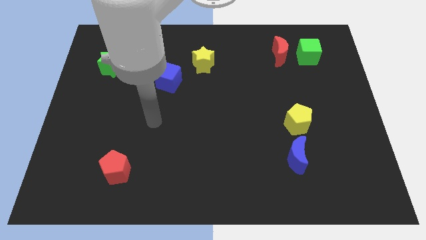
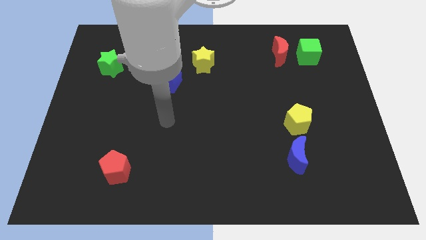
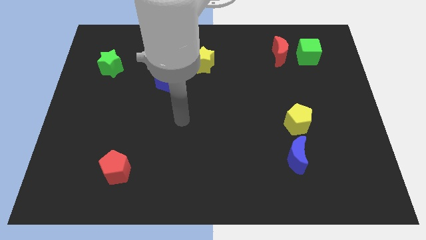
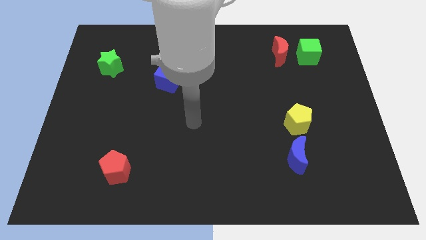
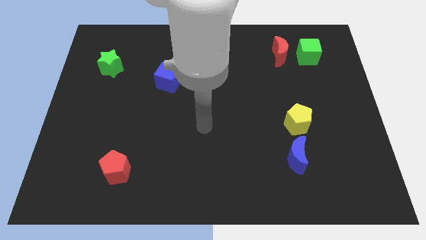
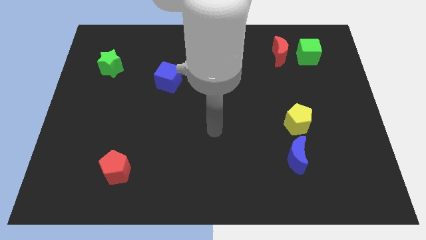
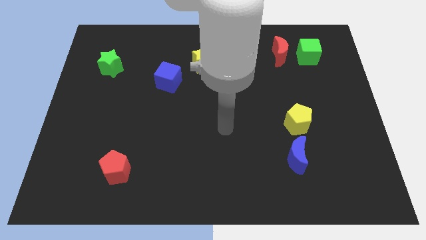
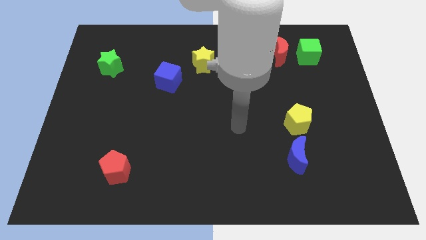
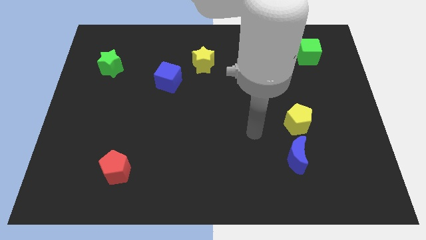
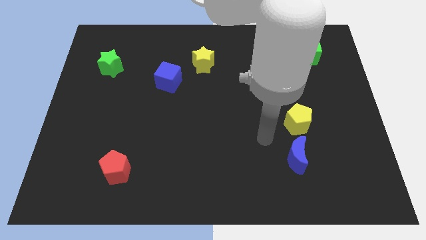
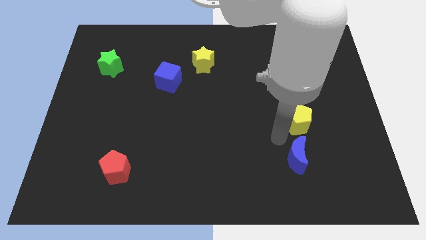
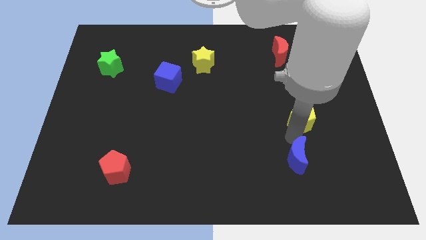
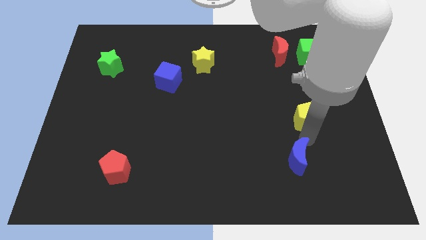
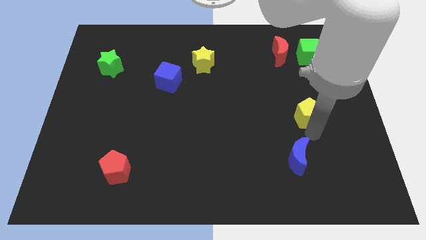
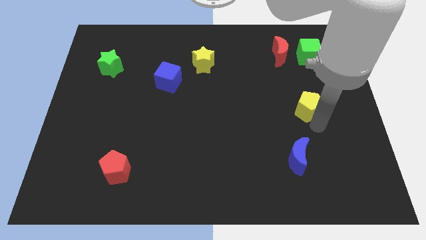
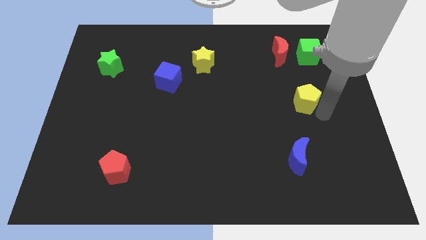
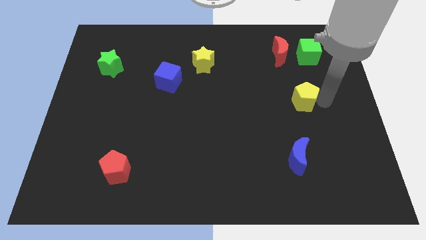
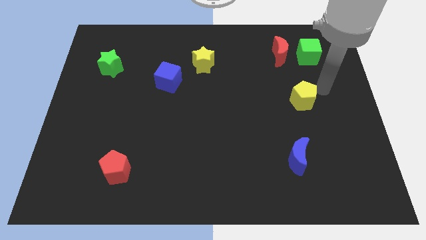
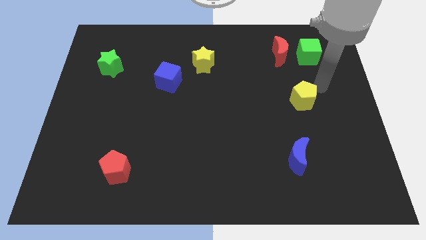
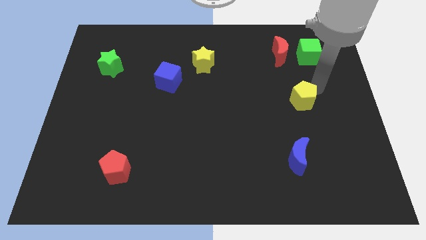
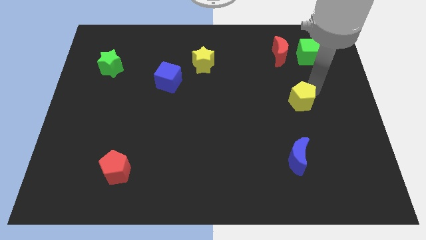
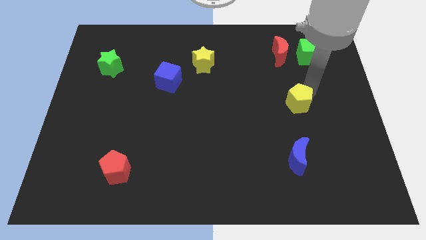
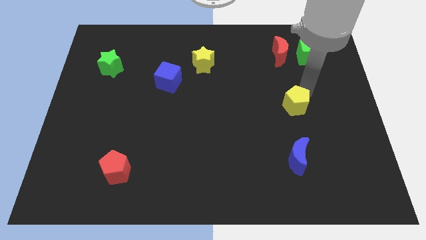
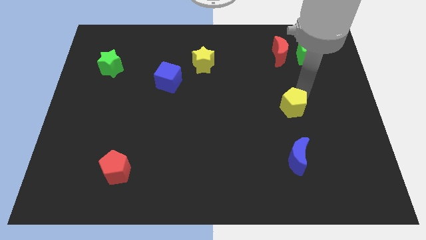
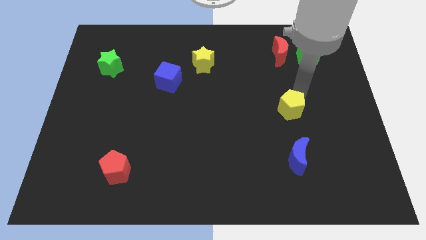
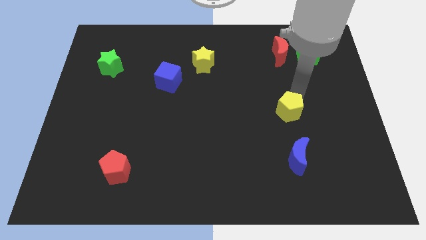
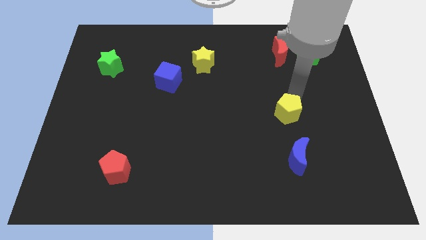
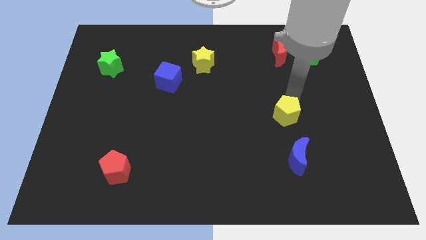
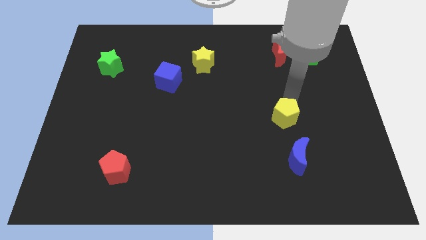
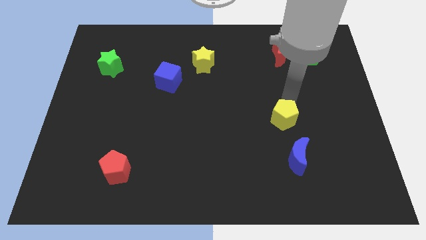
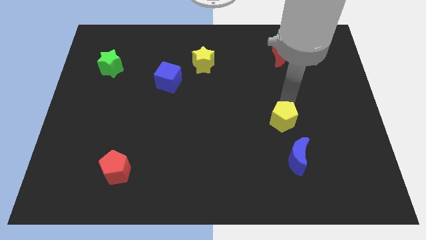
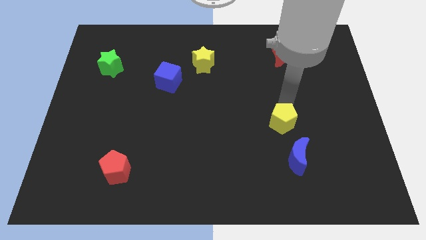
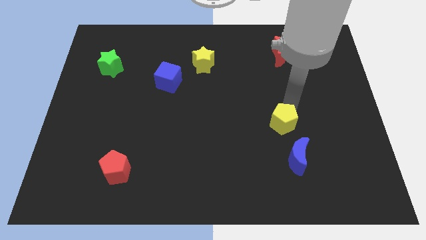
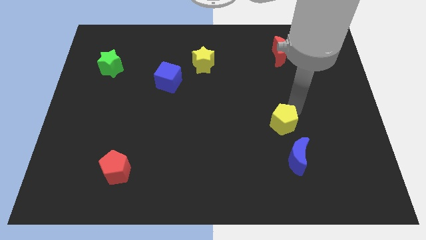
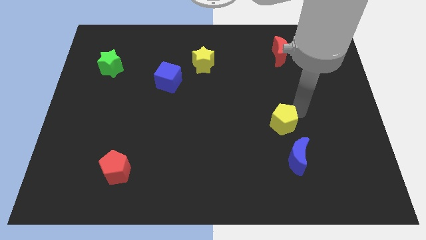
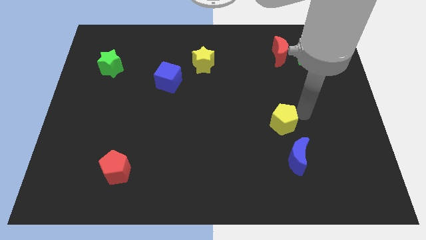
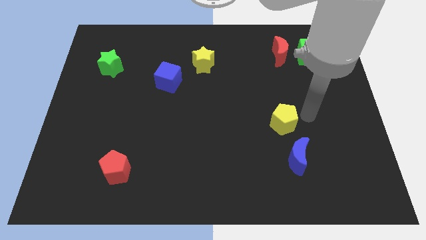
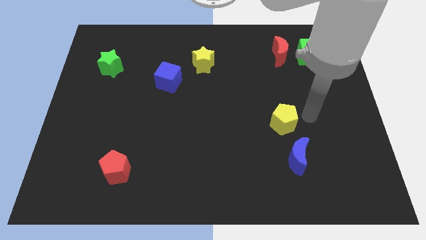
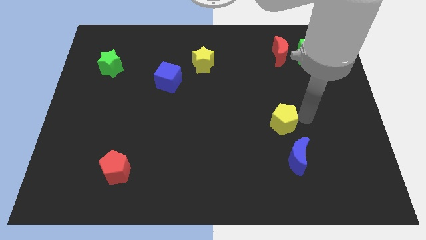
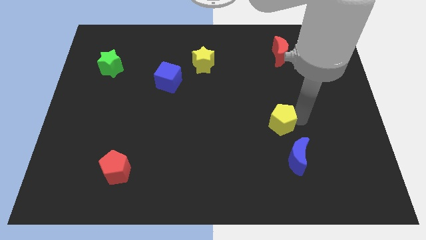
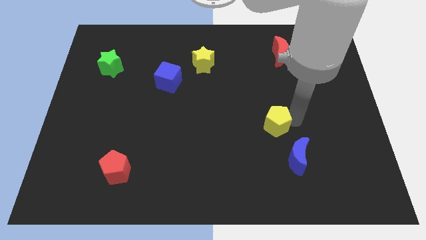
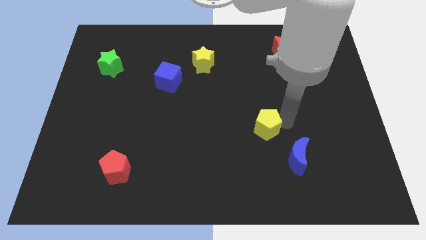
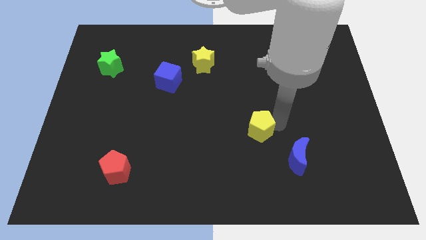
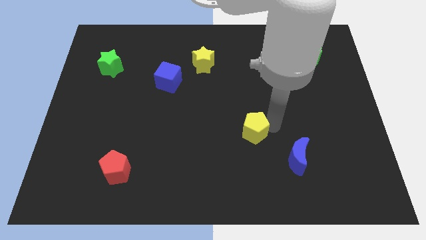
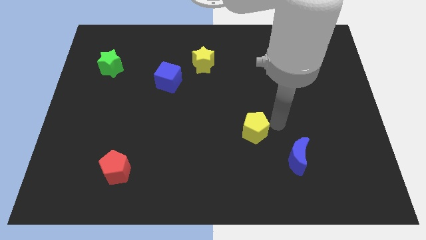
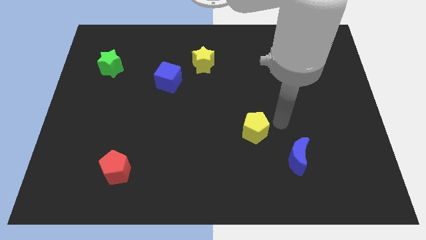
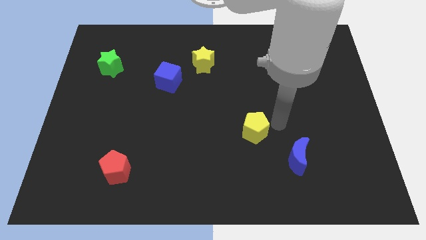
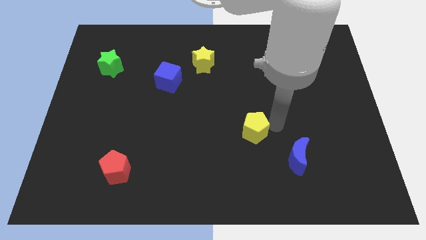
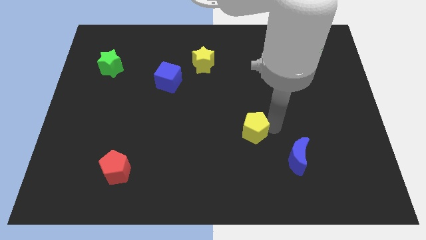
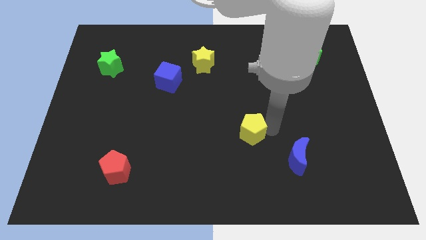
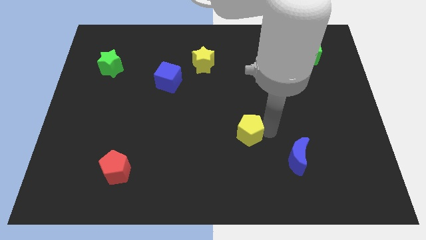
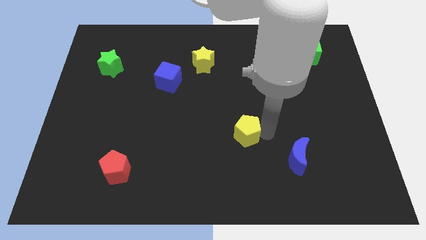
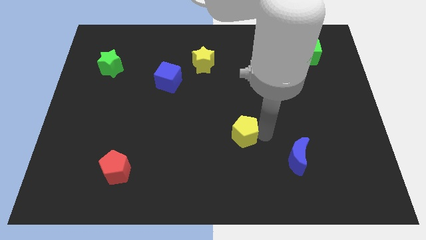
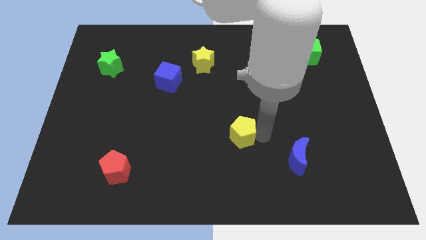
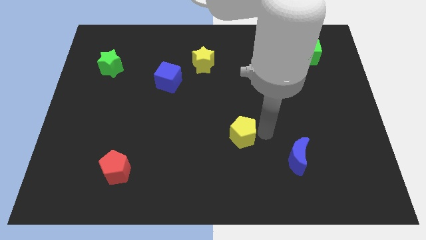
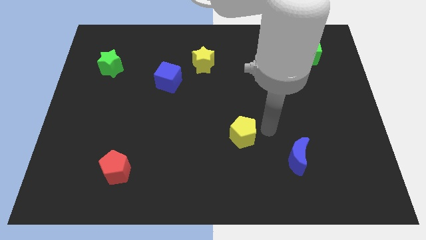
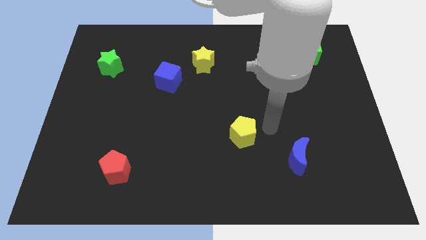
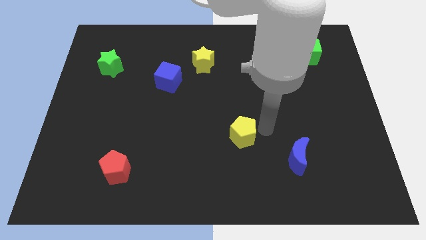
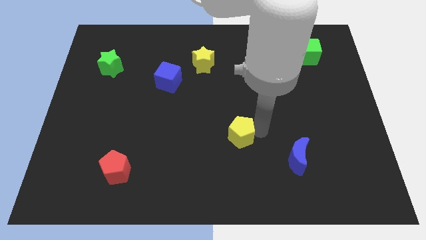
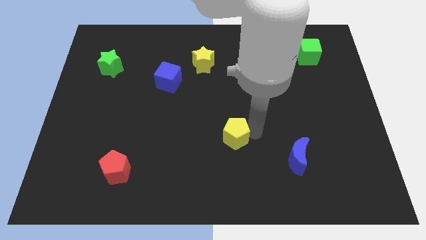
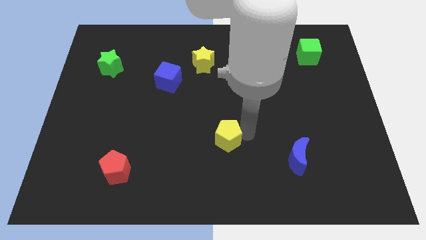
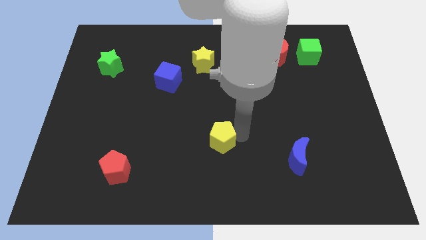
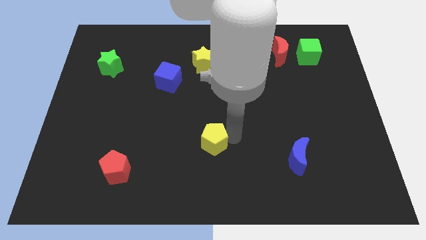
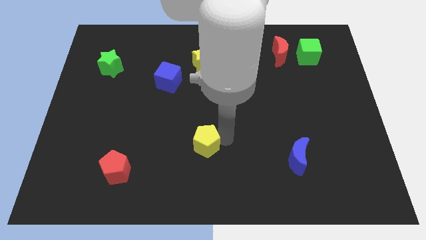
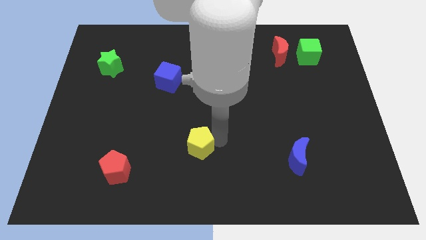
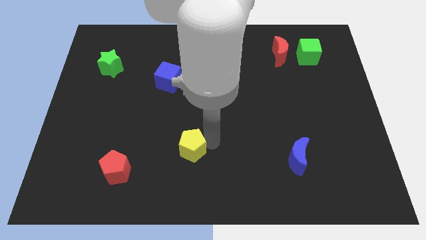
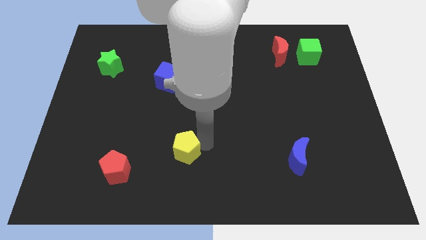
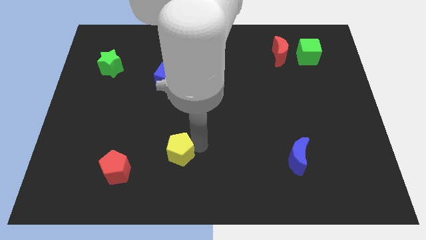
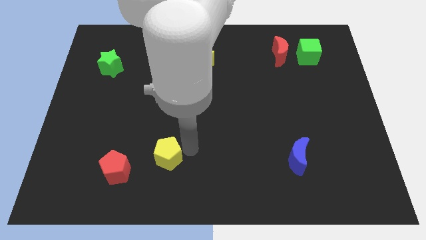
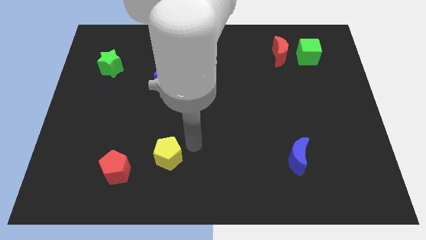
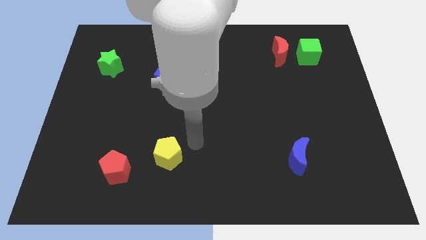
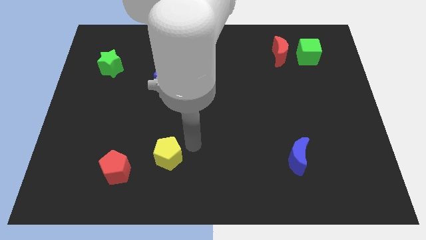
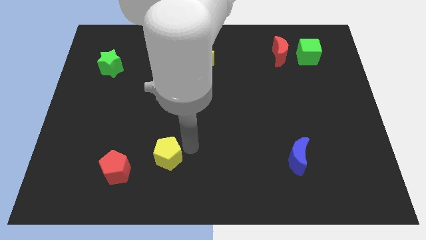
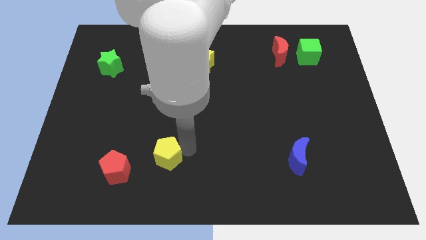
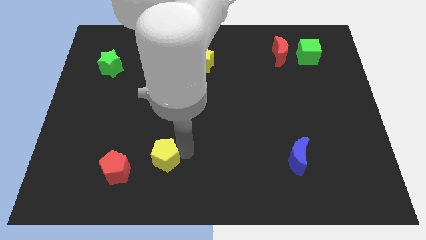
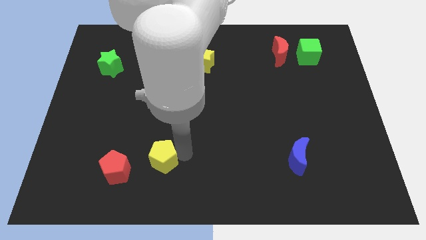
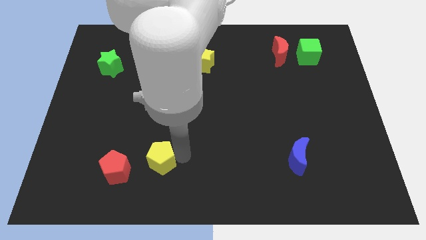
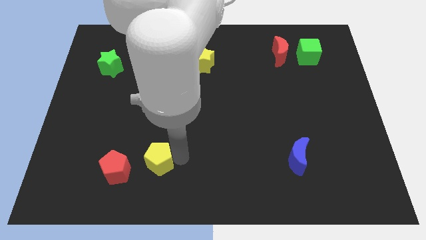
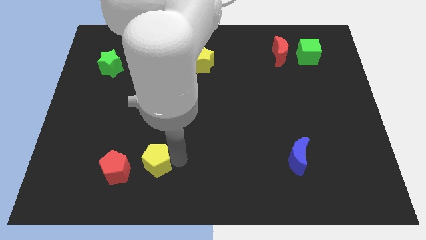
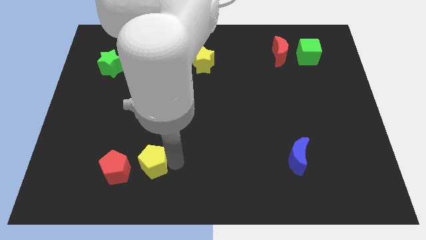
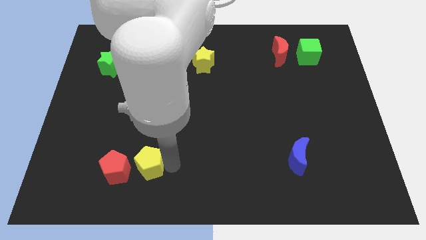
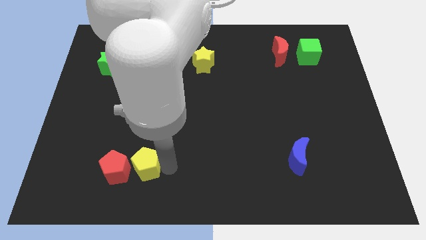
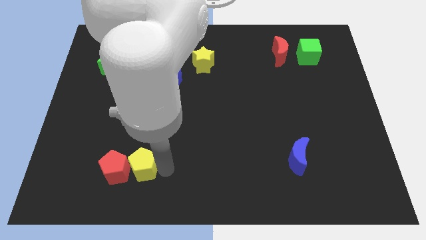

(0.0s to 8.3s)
slide the yellow pentagon next to the red pentagon
